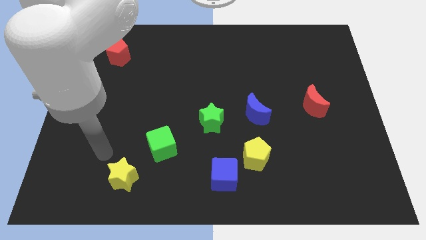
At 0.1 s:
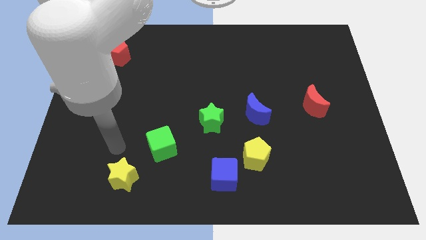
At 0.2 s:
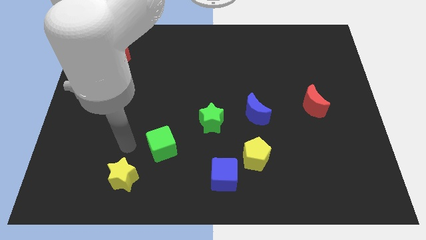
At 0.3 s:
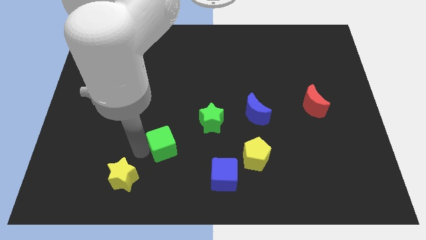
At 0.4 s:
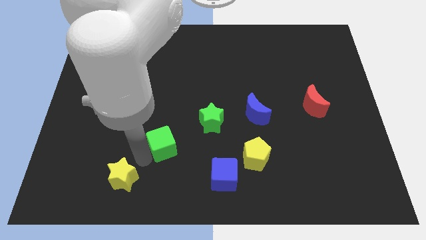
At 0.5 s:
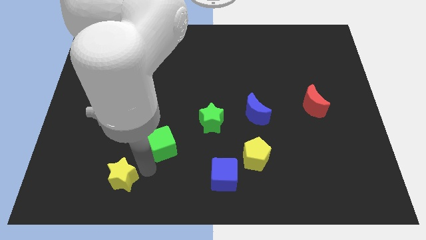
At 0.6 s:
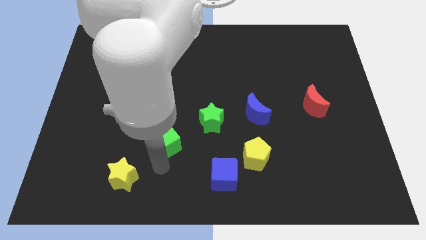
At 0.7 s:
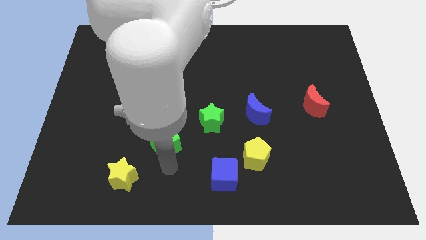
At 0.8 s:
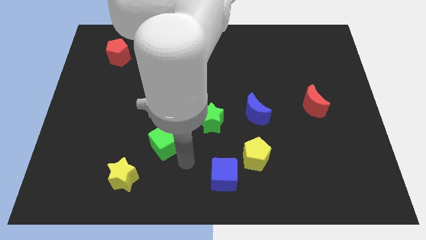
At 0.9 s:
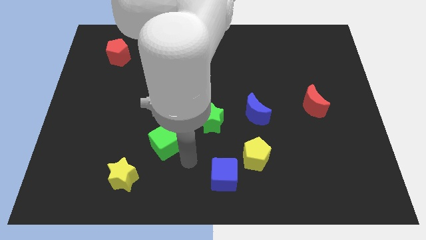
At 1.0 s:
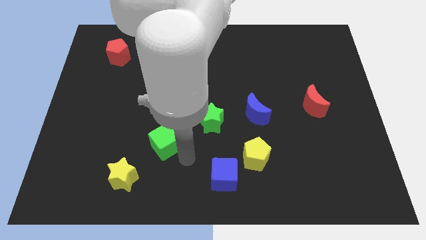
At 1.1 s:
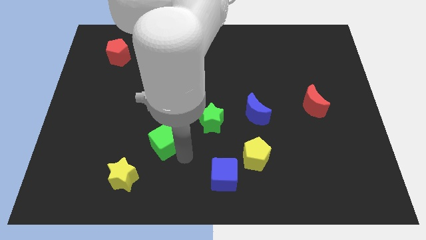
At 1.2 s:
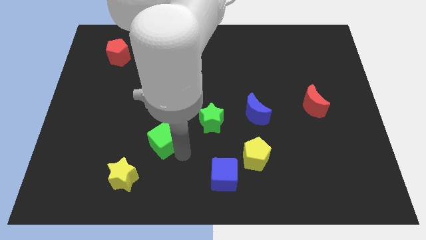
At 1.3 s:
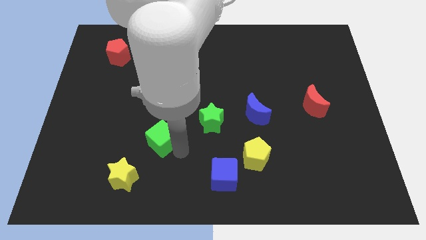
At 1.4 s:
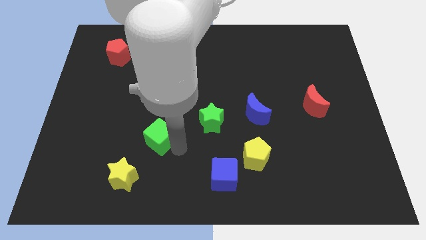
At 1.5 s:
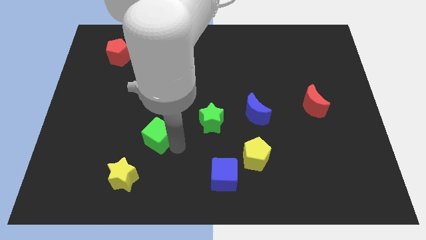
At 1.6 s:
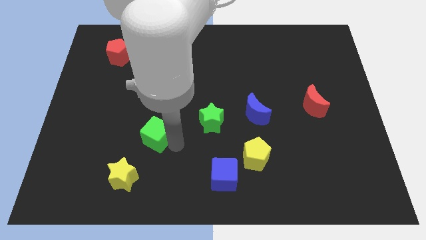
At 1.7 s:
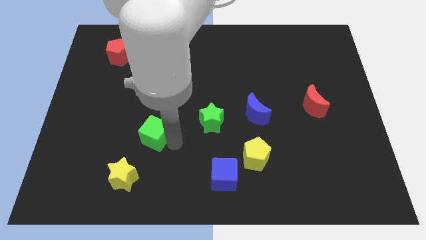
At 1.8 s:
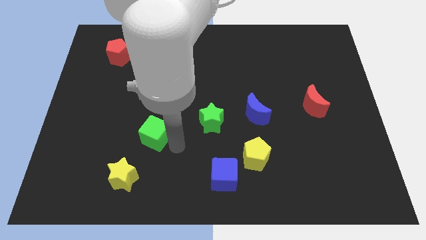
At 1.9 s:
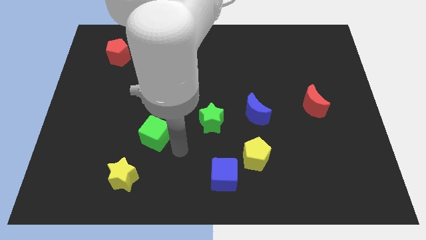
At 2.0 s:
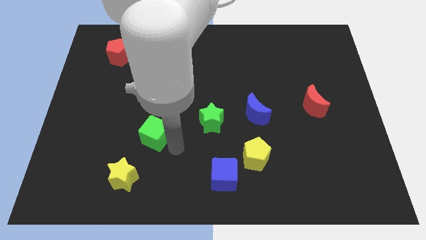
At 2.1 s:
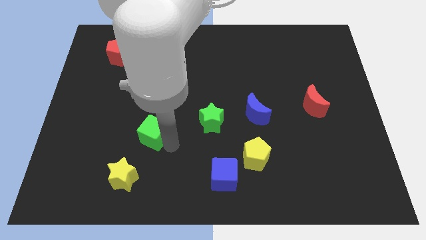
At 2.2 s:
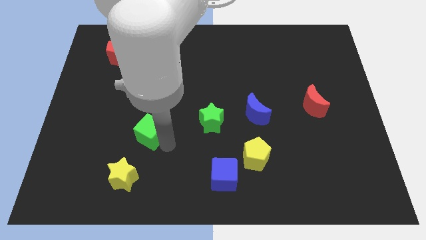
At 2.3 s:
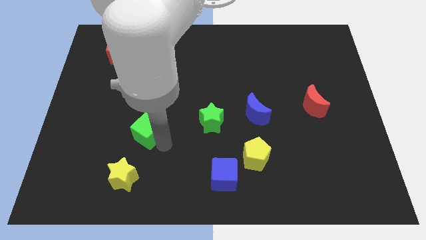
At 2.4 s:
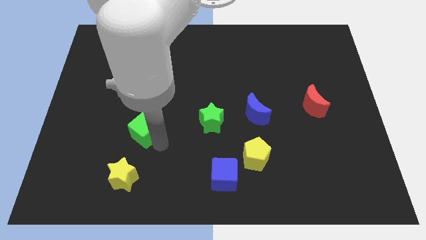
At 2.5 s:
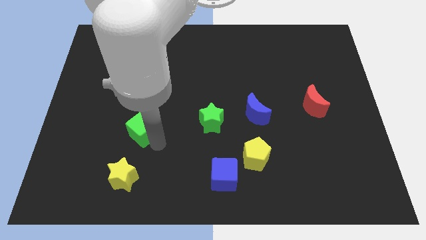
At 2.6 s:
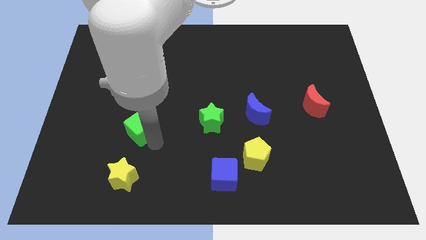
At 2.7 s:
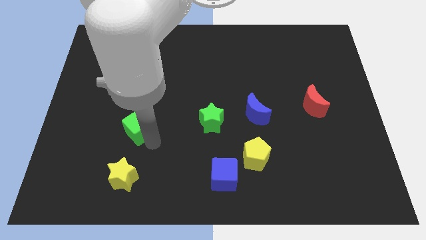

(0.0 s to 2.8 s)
push the green cube up and then left slightly

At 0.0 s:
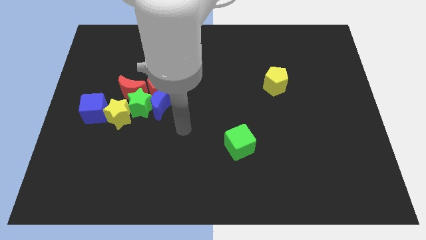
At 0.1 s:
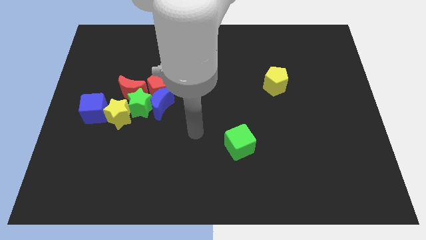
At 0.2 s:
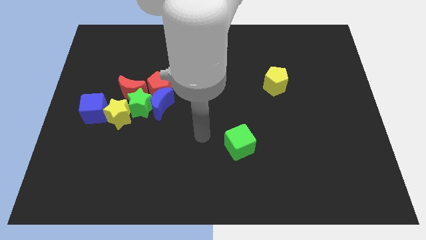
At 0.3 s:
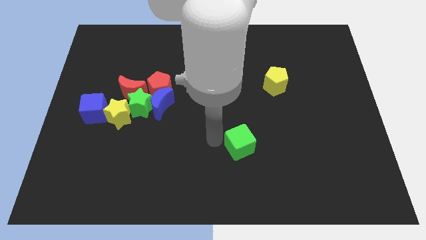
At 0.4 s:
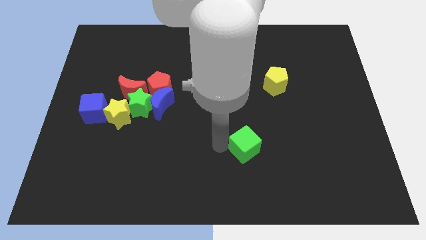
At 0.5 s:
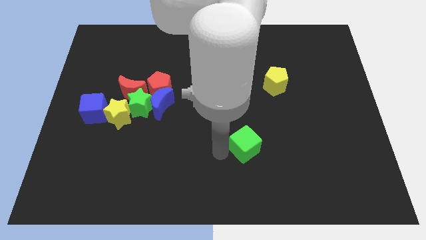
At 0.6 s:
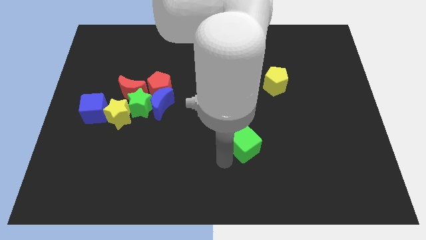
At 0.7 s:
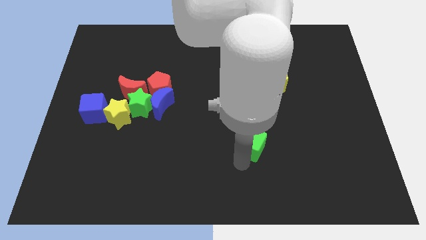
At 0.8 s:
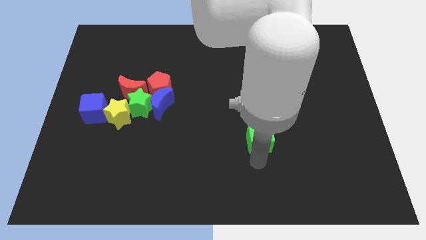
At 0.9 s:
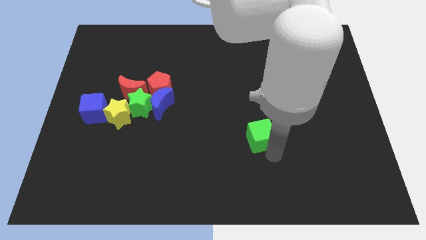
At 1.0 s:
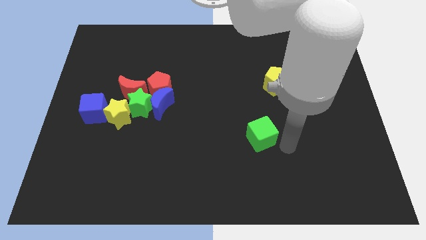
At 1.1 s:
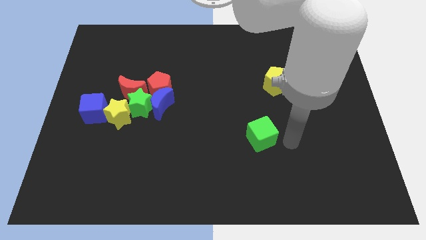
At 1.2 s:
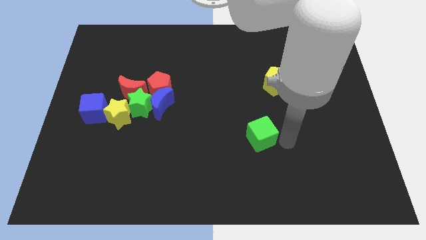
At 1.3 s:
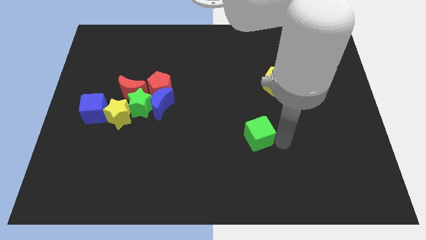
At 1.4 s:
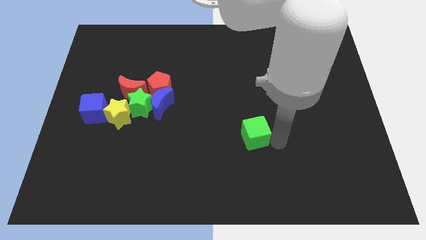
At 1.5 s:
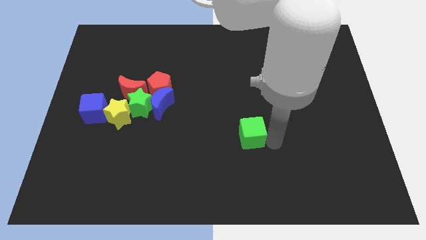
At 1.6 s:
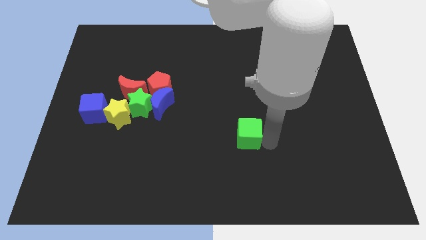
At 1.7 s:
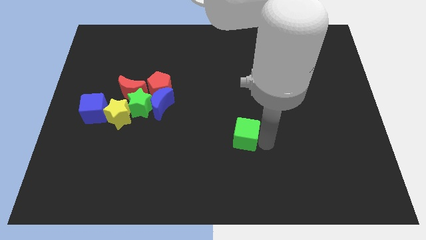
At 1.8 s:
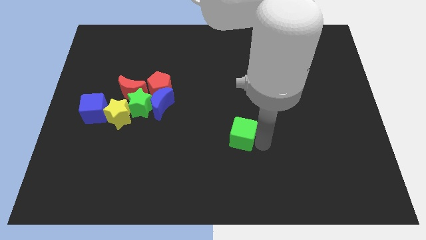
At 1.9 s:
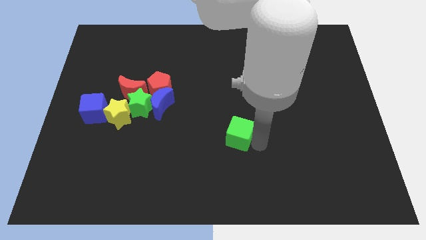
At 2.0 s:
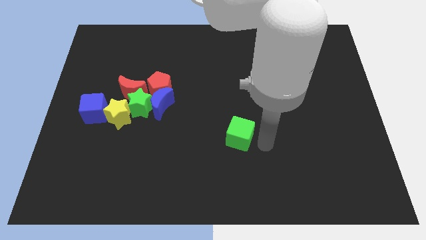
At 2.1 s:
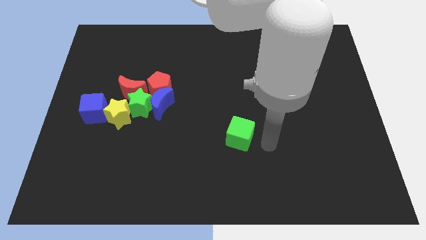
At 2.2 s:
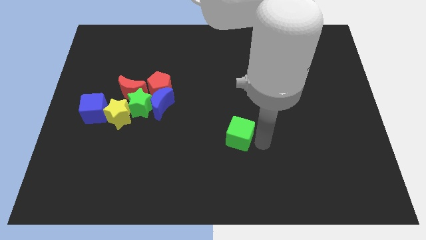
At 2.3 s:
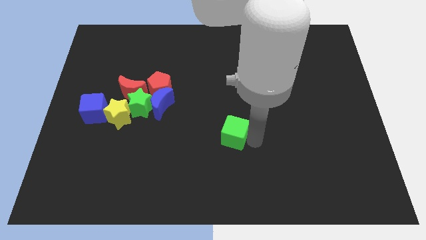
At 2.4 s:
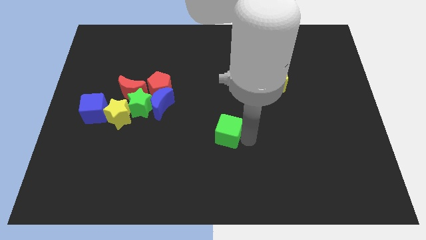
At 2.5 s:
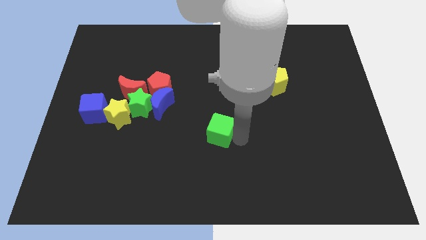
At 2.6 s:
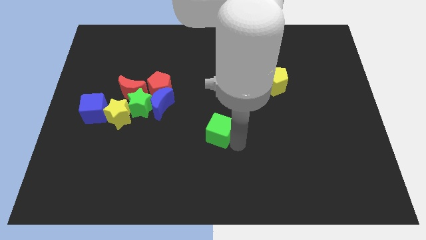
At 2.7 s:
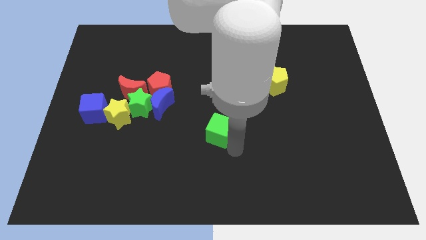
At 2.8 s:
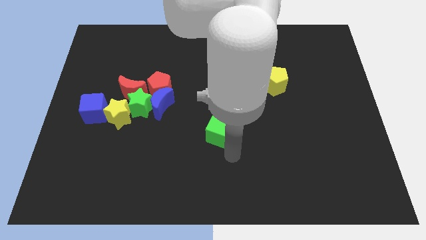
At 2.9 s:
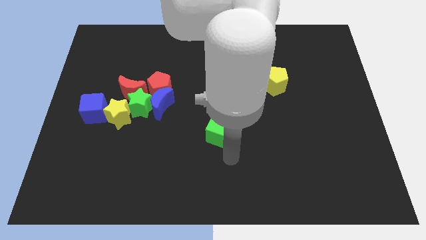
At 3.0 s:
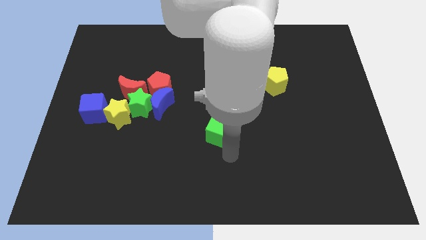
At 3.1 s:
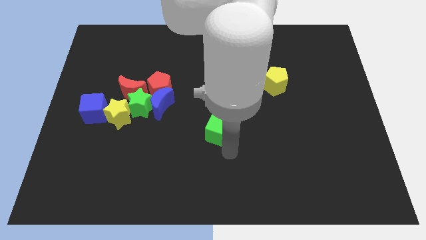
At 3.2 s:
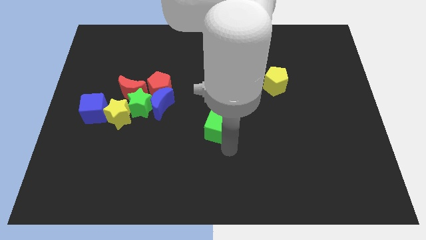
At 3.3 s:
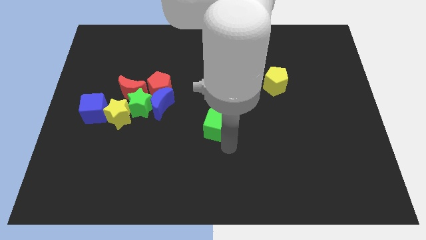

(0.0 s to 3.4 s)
slide the green cube upwards and left a bit

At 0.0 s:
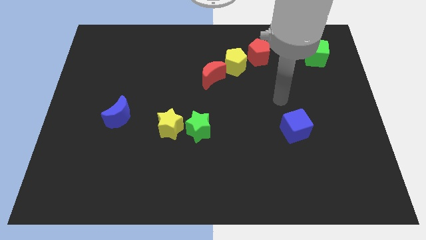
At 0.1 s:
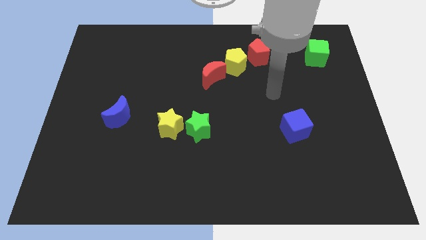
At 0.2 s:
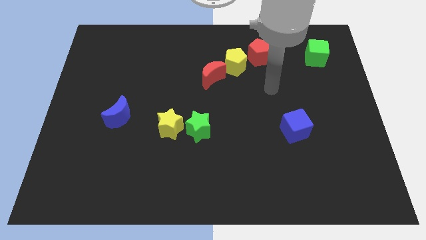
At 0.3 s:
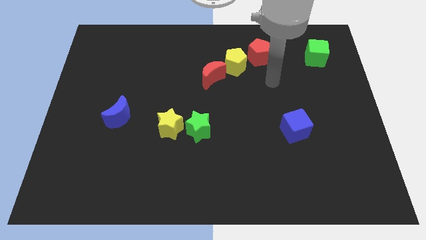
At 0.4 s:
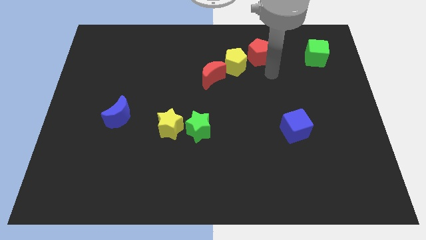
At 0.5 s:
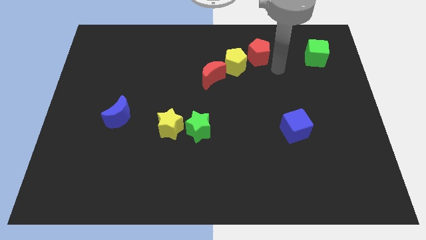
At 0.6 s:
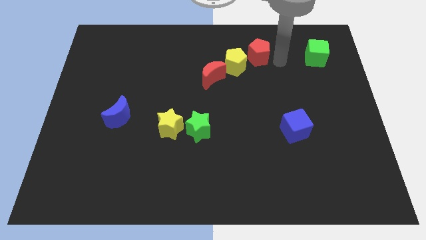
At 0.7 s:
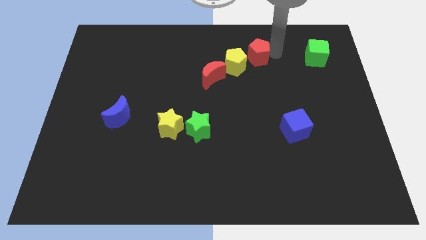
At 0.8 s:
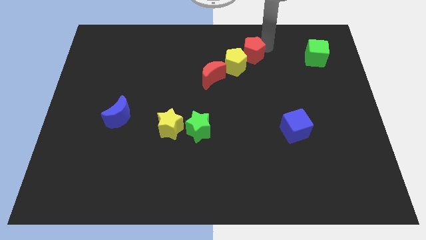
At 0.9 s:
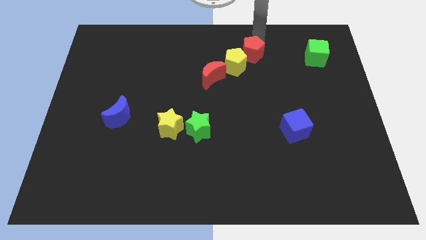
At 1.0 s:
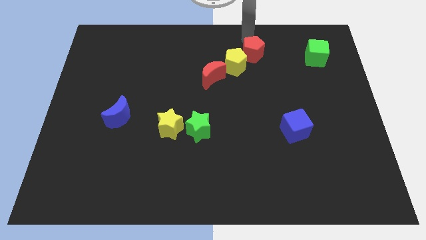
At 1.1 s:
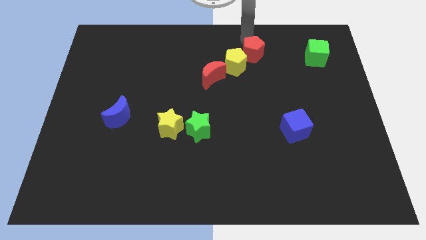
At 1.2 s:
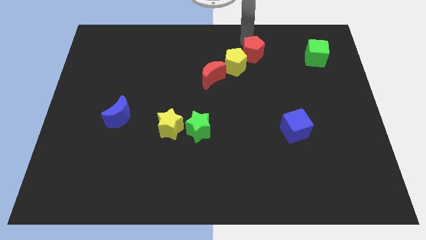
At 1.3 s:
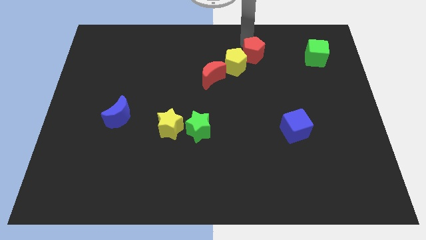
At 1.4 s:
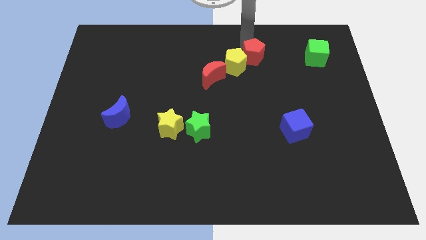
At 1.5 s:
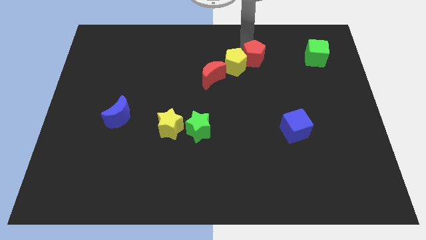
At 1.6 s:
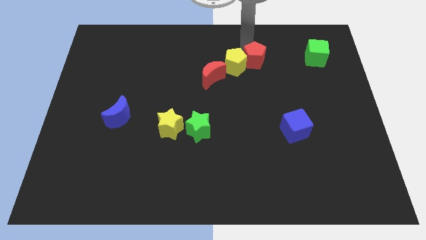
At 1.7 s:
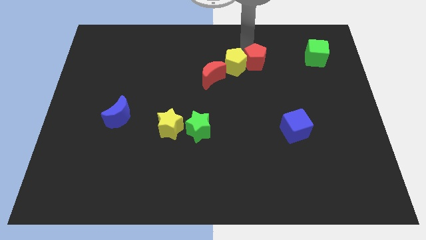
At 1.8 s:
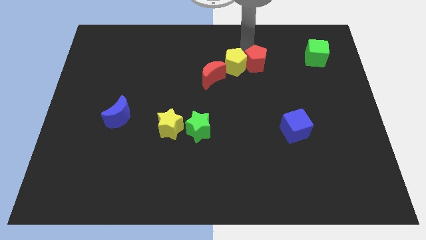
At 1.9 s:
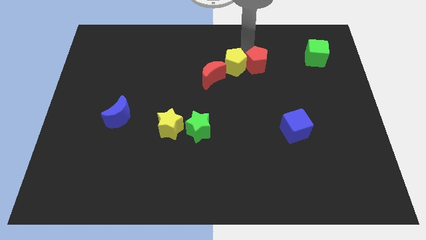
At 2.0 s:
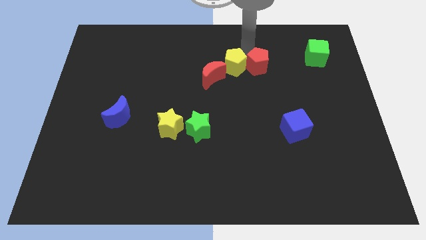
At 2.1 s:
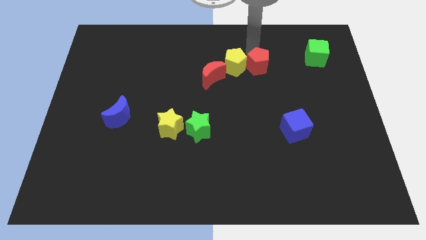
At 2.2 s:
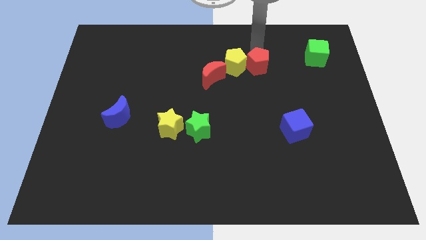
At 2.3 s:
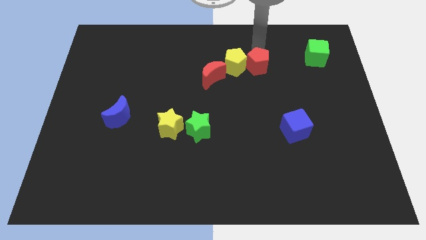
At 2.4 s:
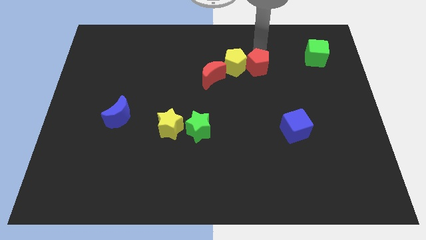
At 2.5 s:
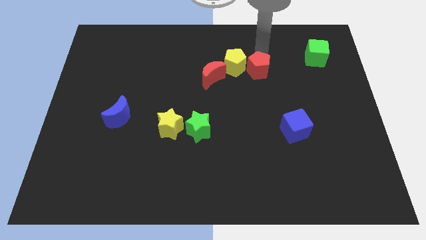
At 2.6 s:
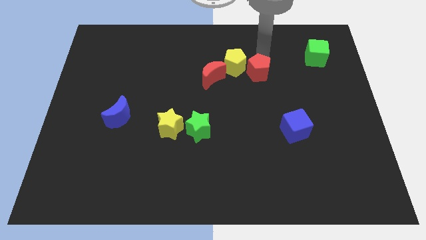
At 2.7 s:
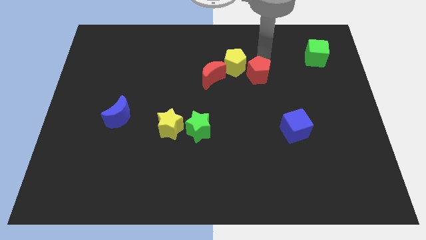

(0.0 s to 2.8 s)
slide the red pentagon a little bit downwards
